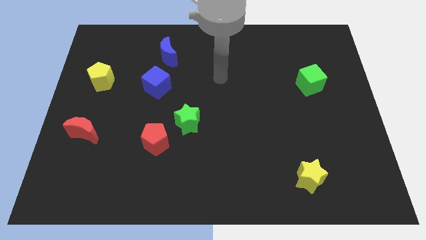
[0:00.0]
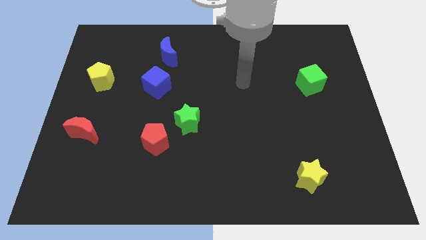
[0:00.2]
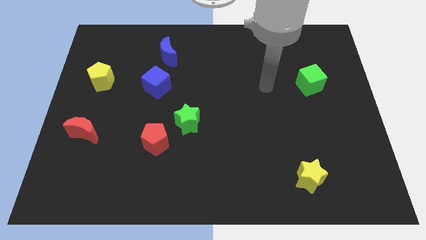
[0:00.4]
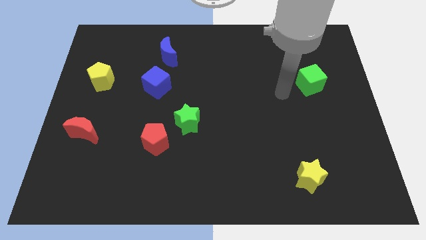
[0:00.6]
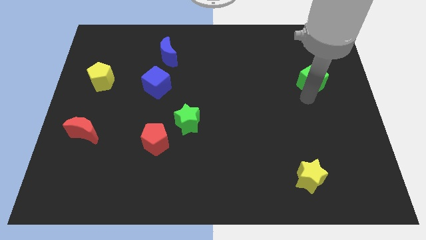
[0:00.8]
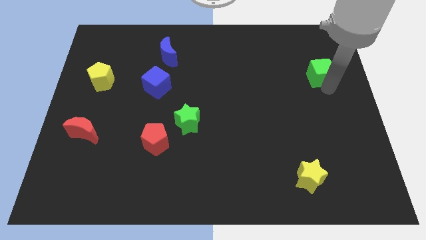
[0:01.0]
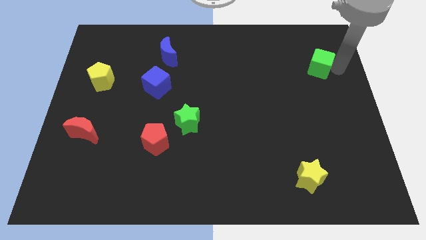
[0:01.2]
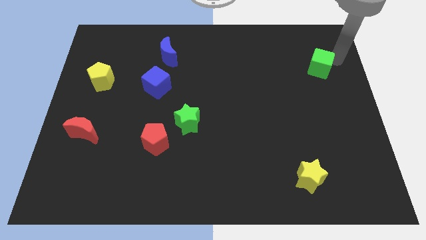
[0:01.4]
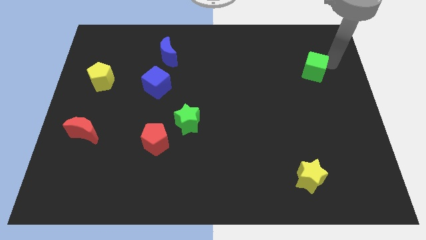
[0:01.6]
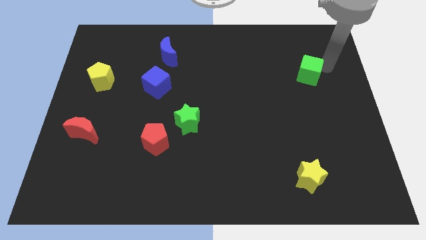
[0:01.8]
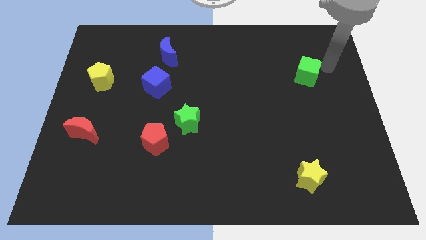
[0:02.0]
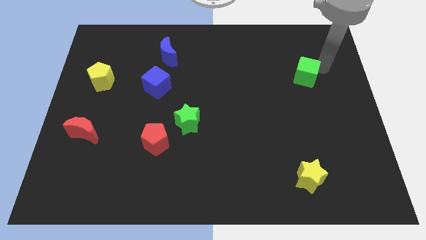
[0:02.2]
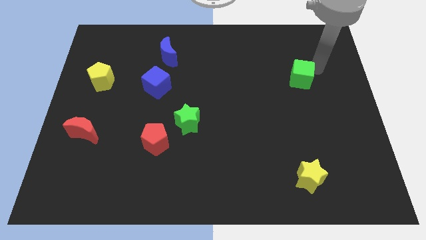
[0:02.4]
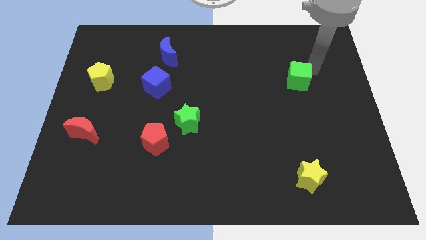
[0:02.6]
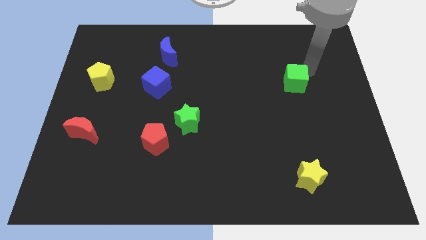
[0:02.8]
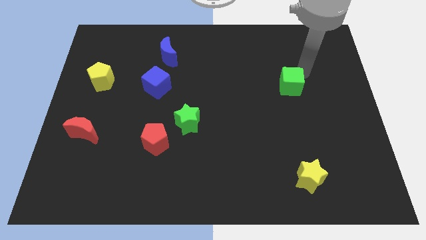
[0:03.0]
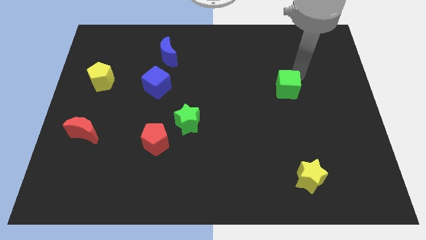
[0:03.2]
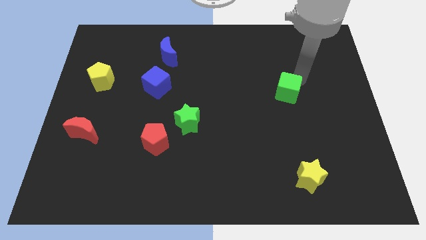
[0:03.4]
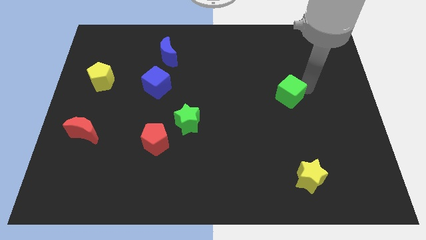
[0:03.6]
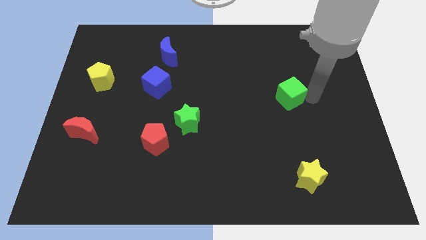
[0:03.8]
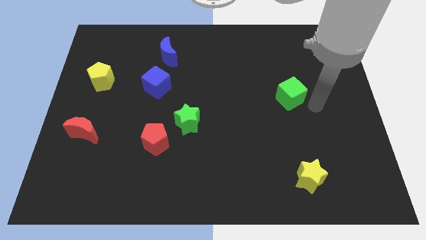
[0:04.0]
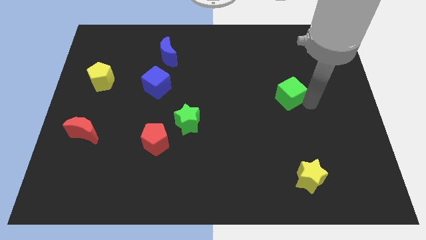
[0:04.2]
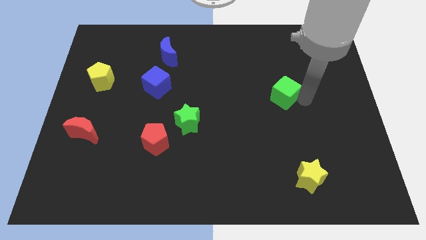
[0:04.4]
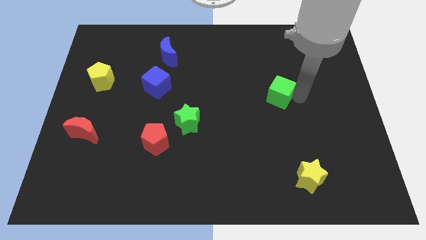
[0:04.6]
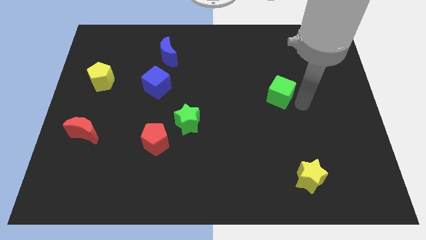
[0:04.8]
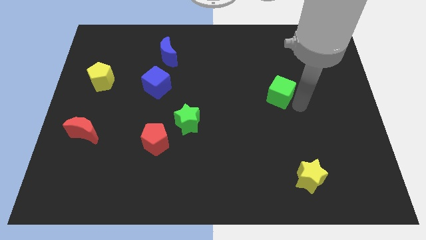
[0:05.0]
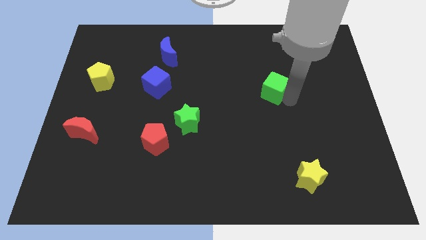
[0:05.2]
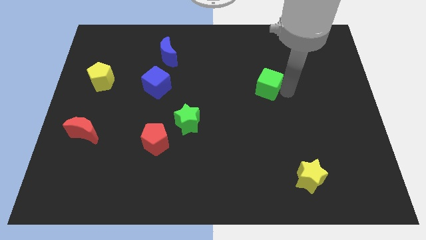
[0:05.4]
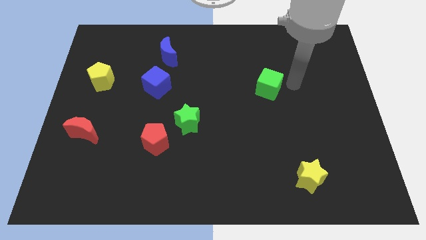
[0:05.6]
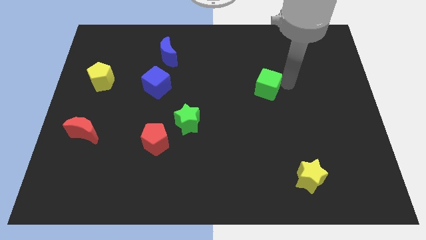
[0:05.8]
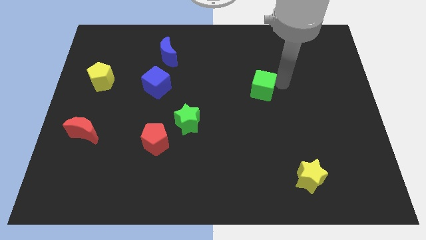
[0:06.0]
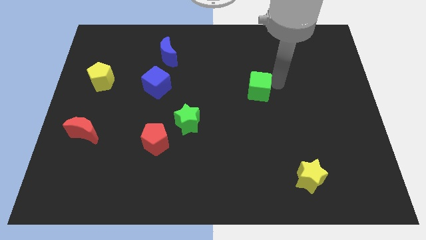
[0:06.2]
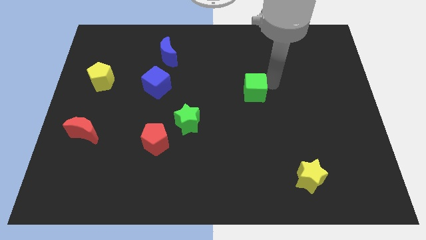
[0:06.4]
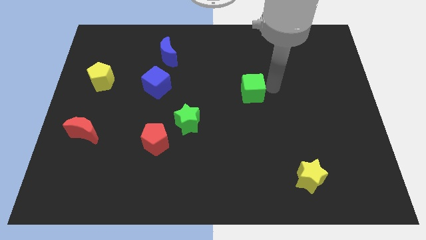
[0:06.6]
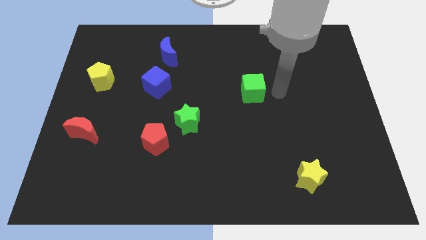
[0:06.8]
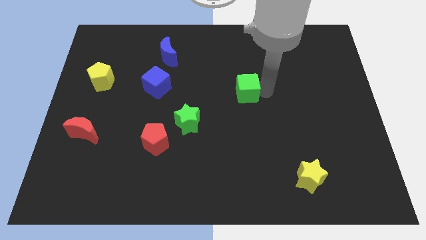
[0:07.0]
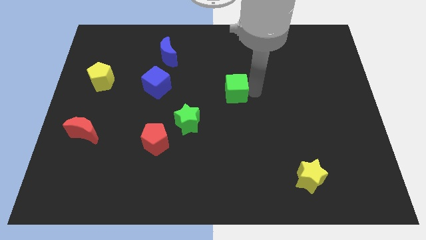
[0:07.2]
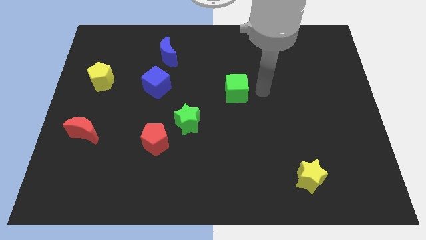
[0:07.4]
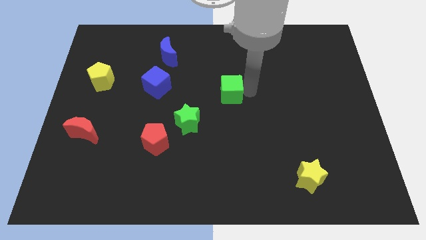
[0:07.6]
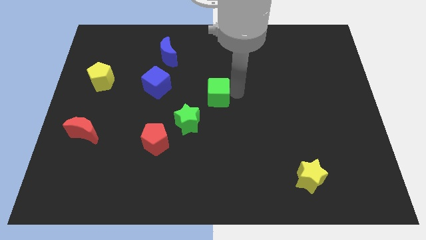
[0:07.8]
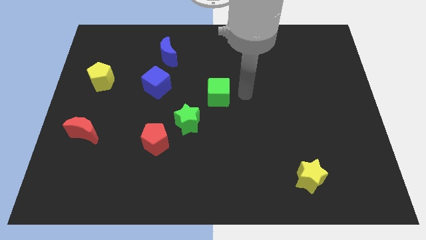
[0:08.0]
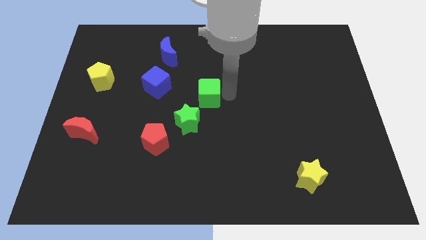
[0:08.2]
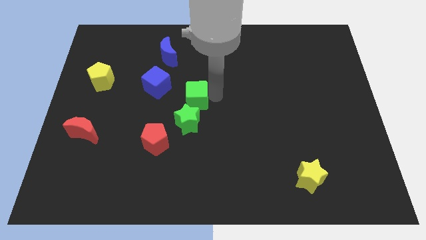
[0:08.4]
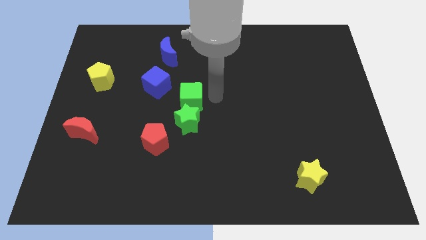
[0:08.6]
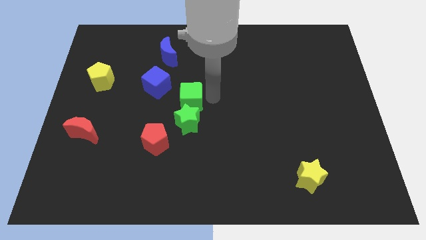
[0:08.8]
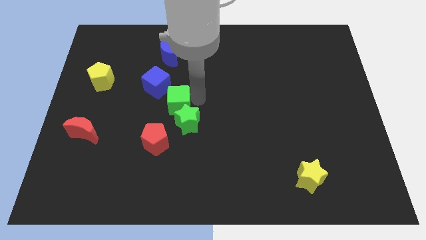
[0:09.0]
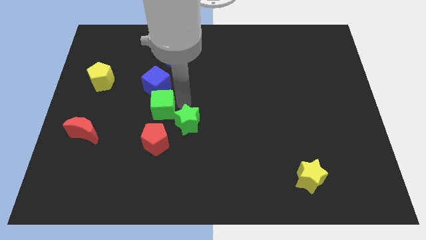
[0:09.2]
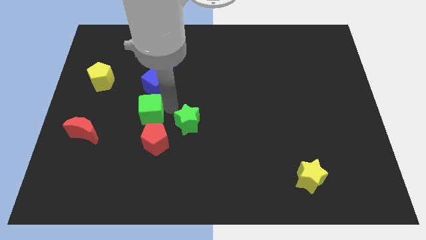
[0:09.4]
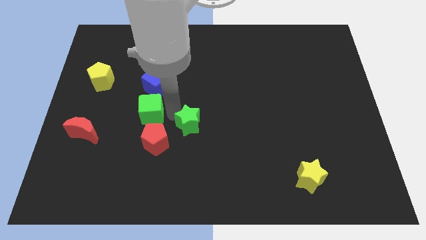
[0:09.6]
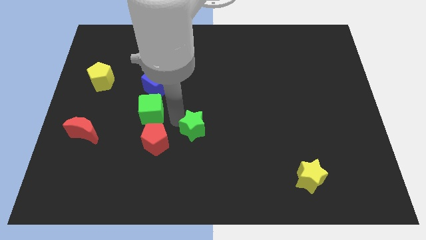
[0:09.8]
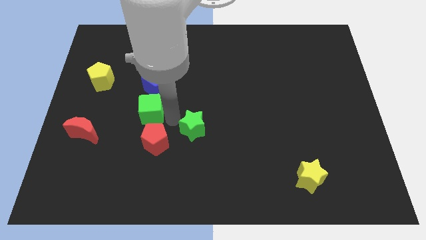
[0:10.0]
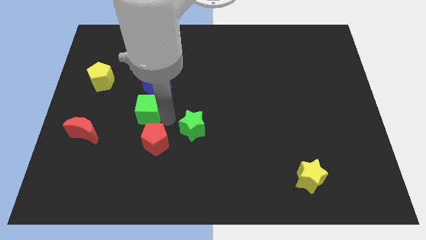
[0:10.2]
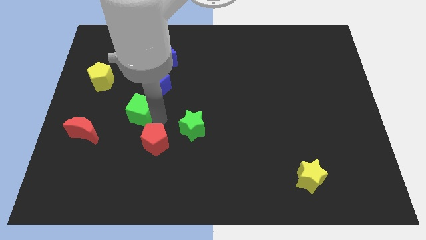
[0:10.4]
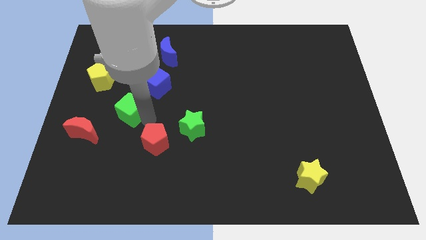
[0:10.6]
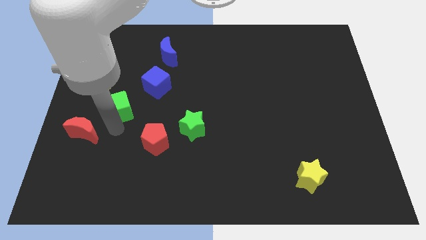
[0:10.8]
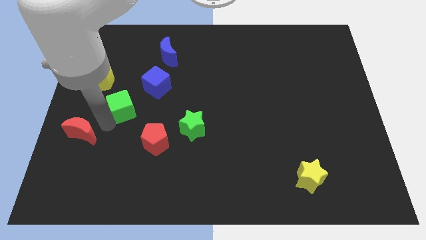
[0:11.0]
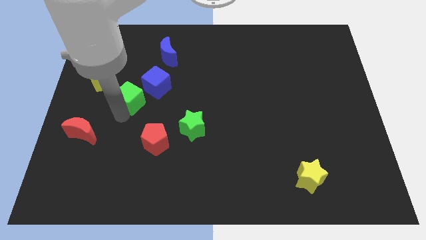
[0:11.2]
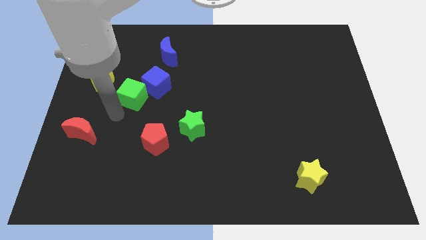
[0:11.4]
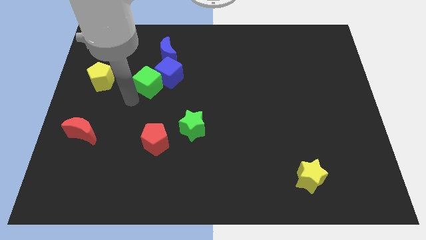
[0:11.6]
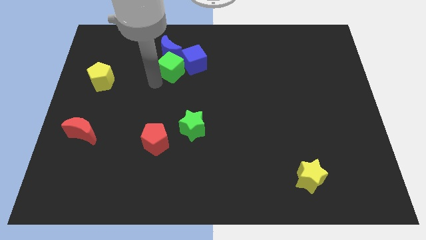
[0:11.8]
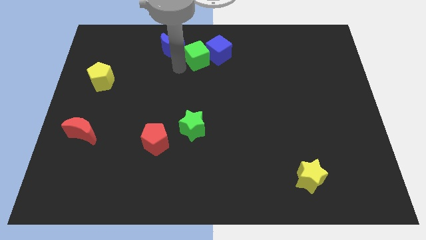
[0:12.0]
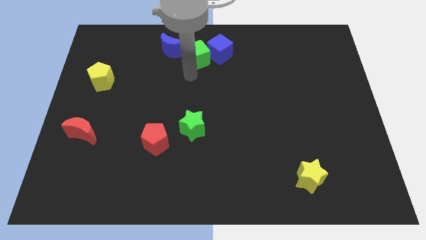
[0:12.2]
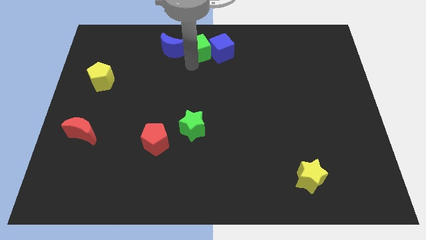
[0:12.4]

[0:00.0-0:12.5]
put the green cube to the top

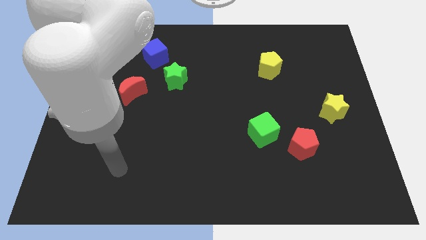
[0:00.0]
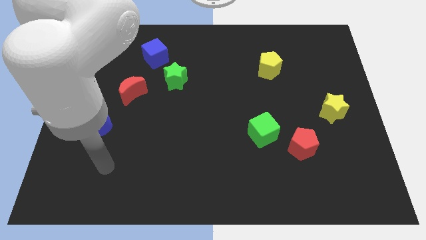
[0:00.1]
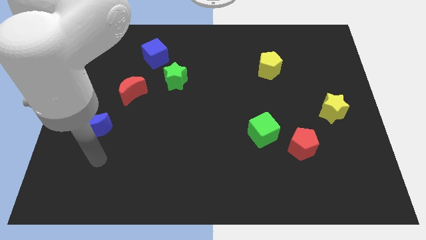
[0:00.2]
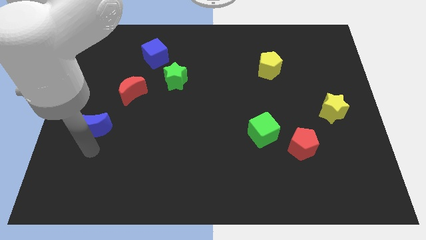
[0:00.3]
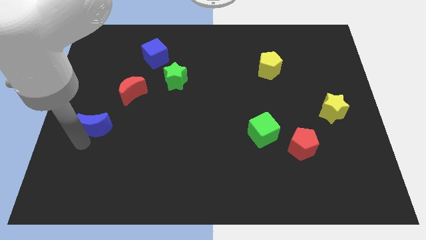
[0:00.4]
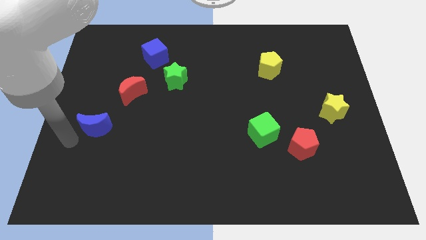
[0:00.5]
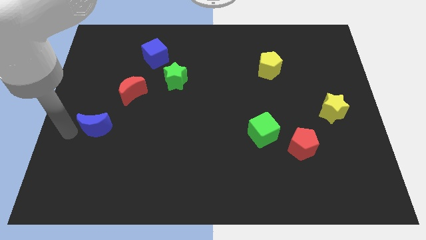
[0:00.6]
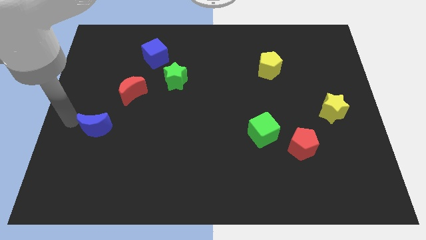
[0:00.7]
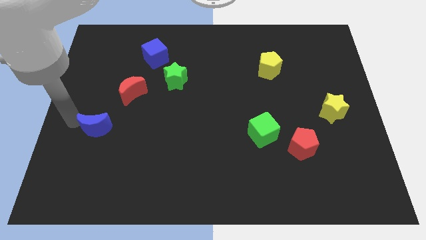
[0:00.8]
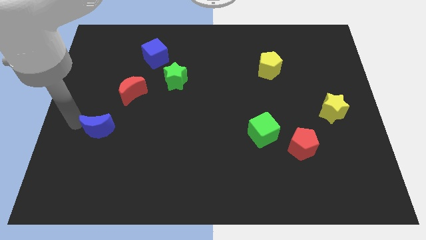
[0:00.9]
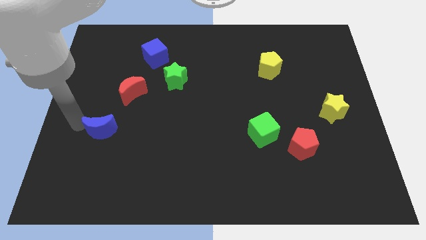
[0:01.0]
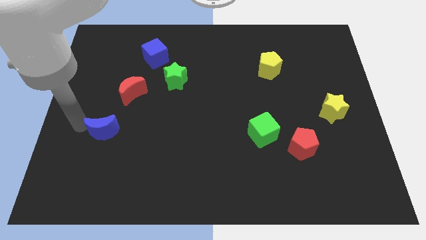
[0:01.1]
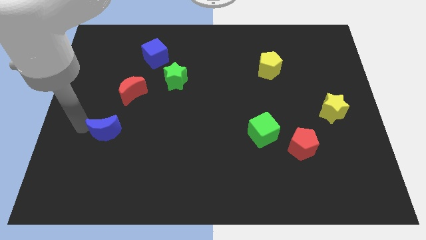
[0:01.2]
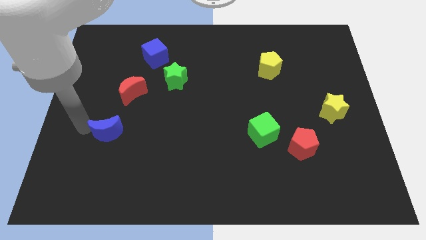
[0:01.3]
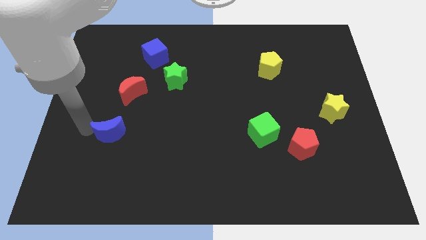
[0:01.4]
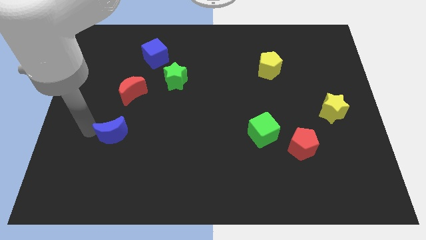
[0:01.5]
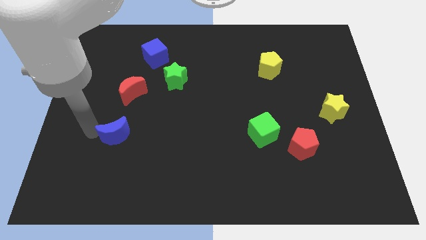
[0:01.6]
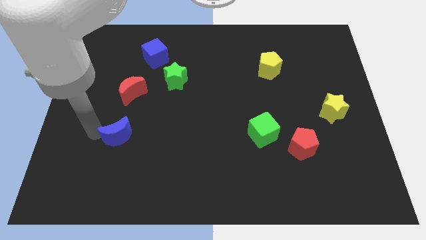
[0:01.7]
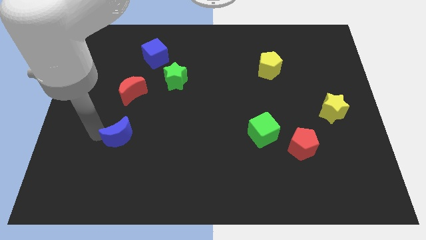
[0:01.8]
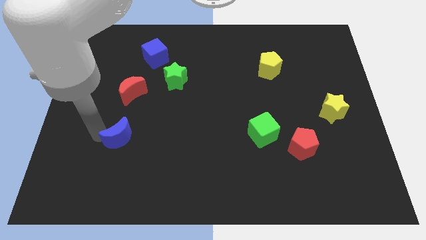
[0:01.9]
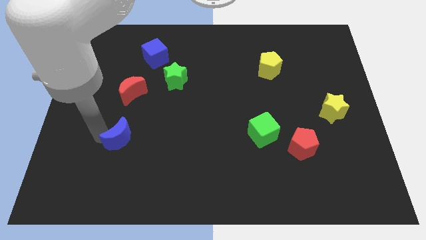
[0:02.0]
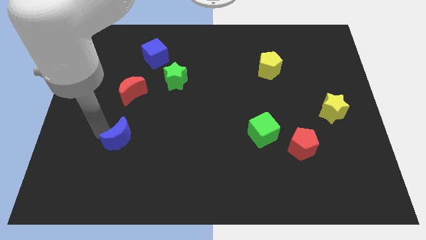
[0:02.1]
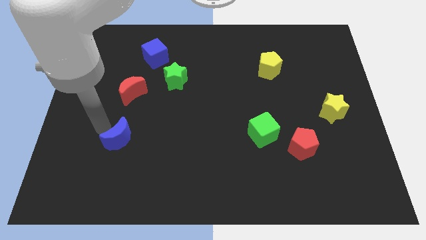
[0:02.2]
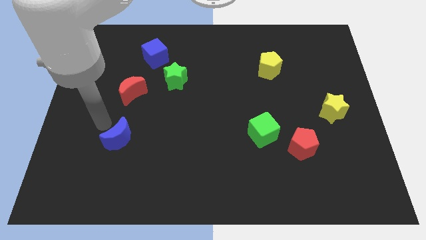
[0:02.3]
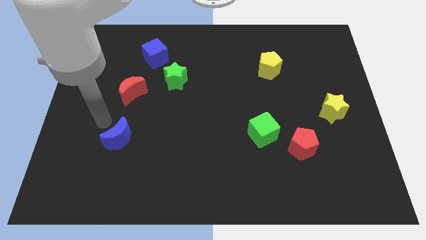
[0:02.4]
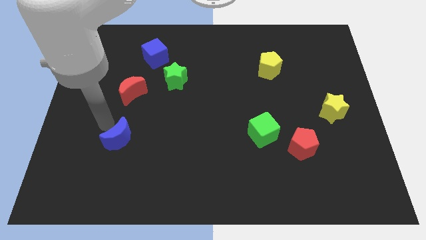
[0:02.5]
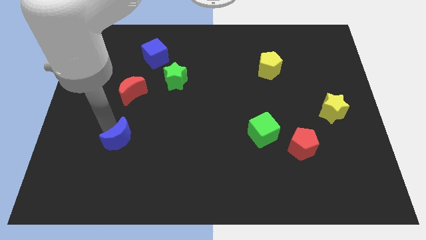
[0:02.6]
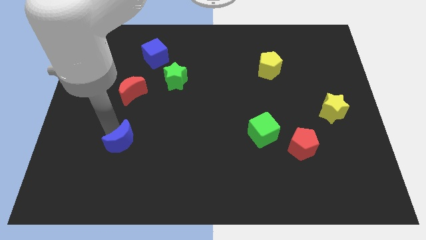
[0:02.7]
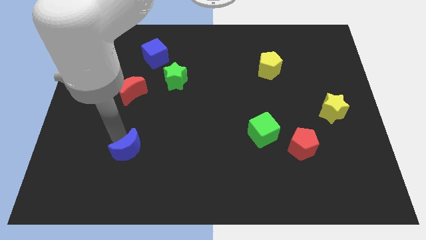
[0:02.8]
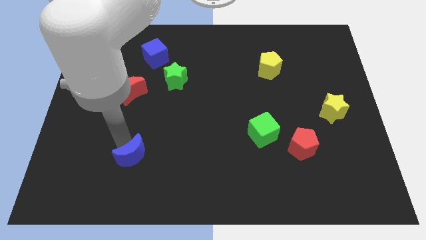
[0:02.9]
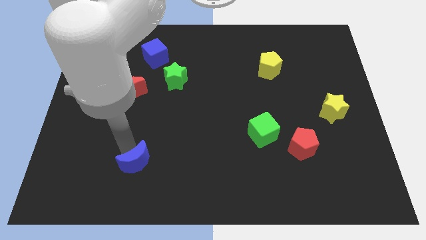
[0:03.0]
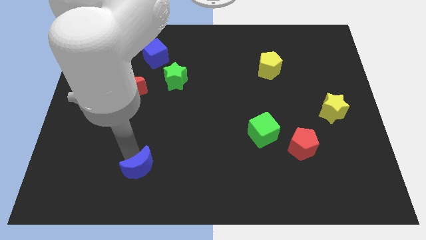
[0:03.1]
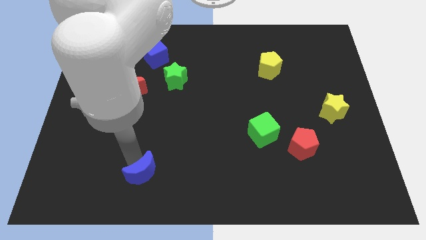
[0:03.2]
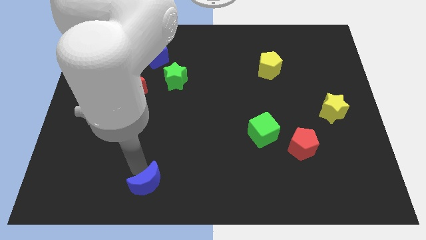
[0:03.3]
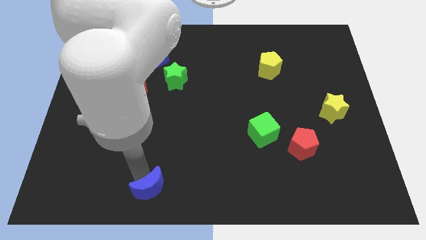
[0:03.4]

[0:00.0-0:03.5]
push the blue moon to the bottom
